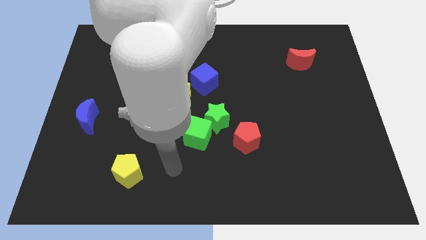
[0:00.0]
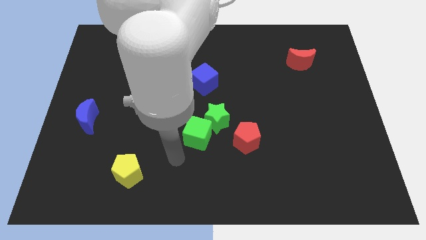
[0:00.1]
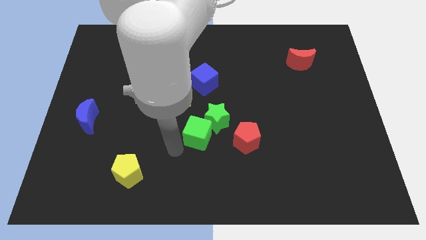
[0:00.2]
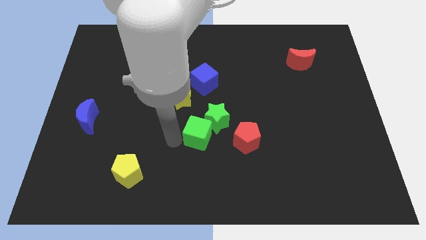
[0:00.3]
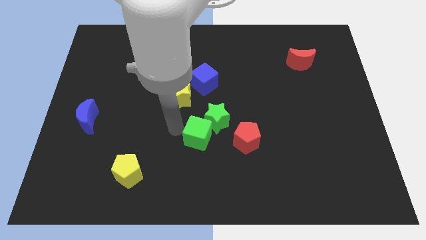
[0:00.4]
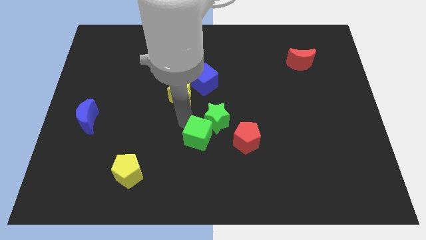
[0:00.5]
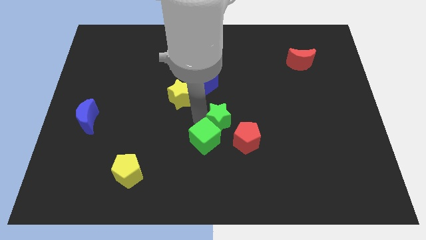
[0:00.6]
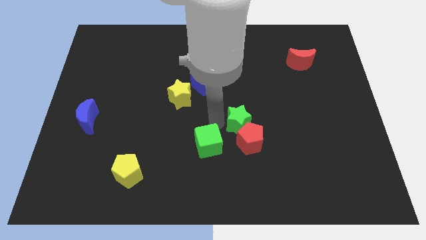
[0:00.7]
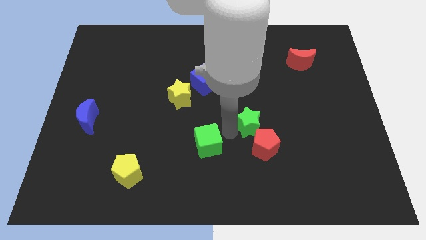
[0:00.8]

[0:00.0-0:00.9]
pull the green cube apart from the green star

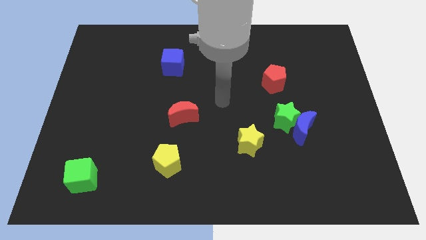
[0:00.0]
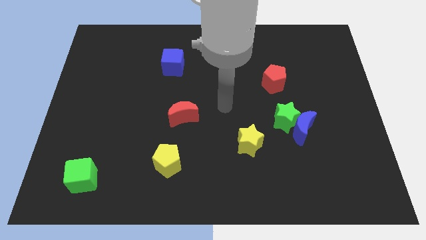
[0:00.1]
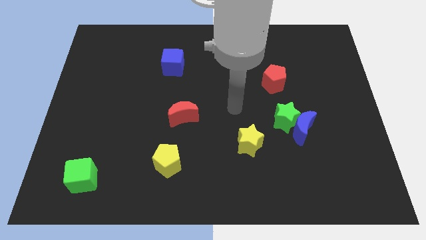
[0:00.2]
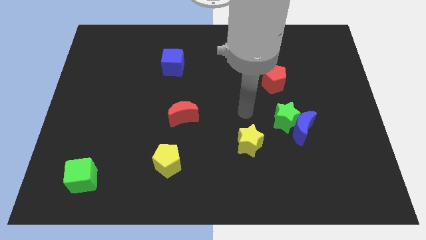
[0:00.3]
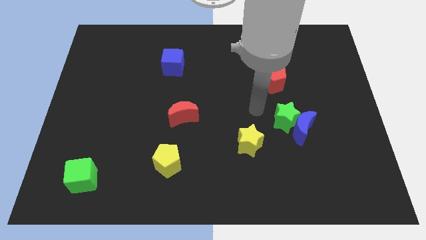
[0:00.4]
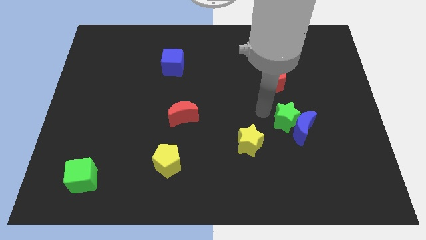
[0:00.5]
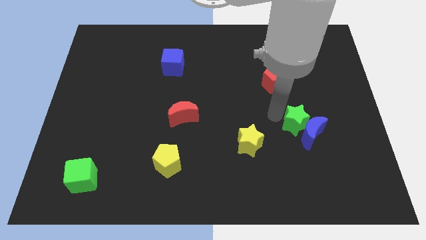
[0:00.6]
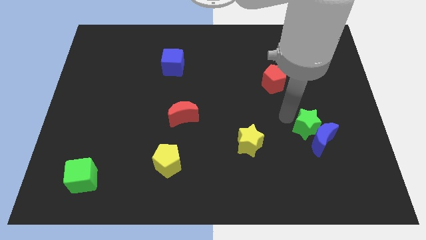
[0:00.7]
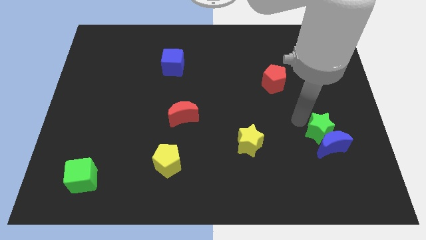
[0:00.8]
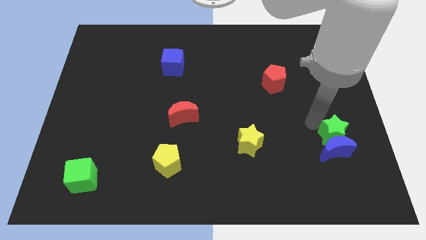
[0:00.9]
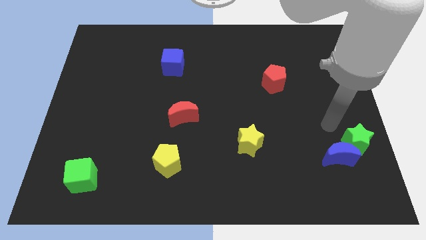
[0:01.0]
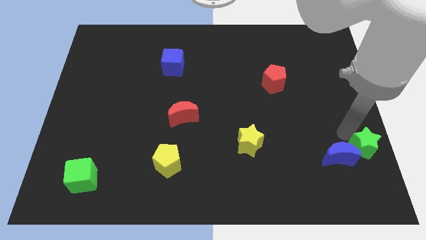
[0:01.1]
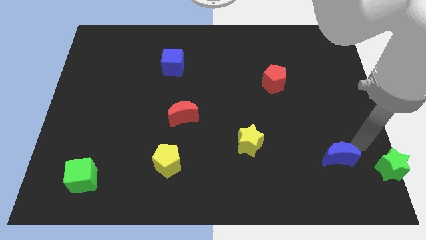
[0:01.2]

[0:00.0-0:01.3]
pull the blue moon apart from the green star

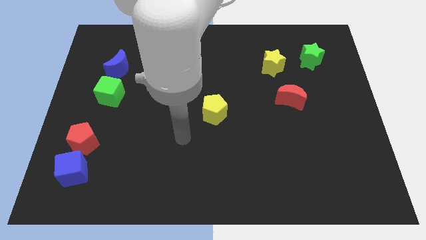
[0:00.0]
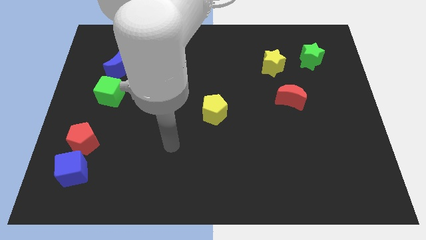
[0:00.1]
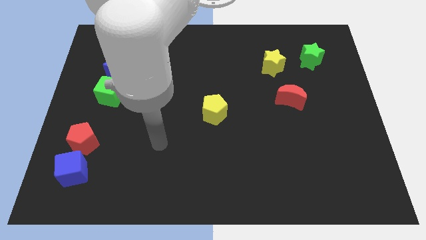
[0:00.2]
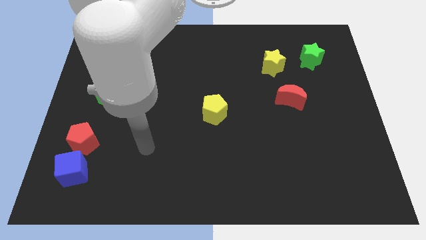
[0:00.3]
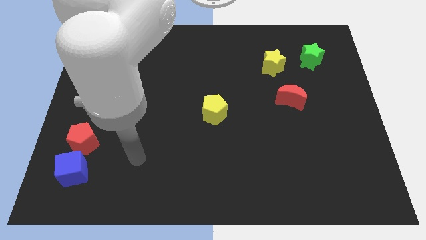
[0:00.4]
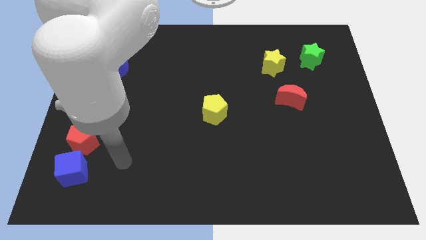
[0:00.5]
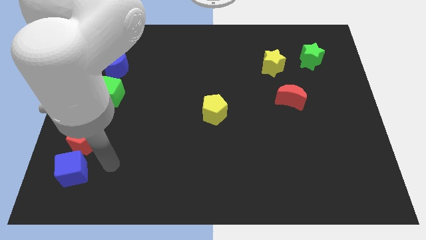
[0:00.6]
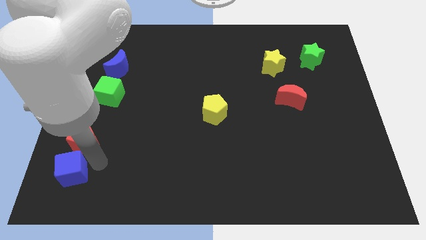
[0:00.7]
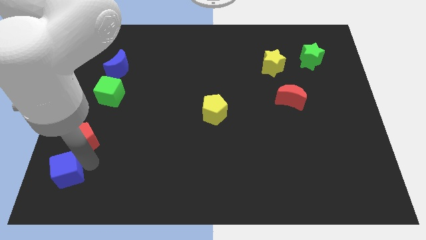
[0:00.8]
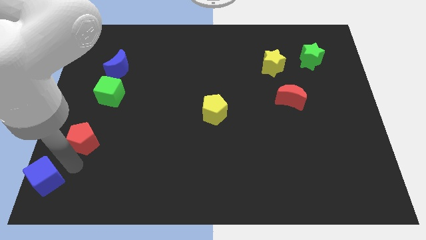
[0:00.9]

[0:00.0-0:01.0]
separate the red pentagon from the blue cube

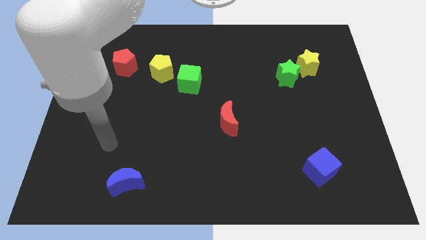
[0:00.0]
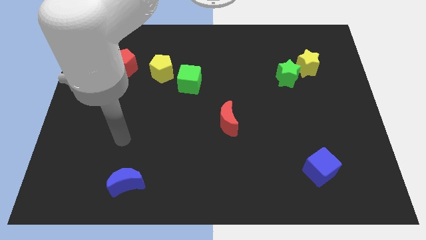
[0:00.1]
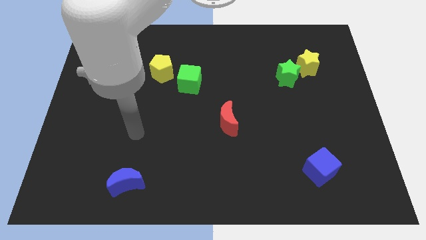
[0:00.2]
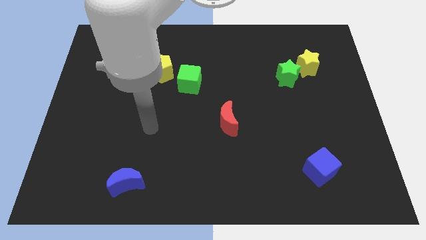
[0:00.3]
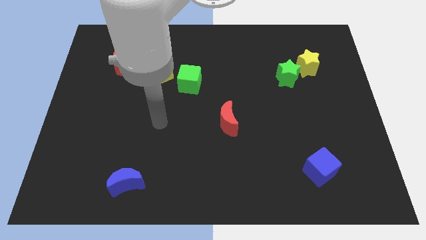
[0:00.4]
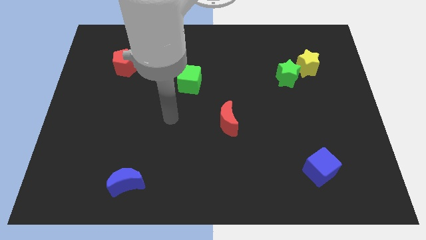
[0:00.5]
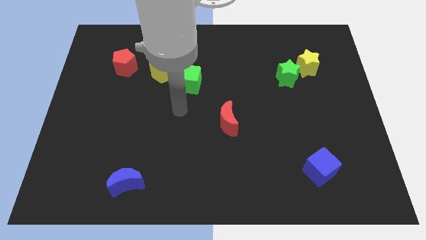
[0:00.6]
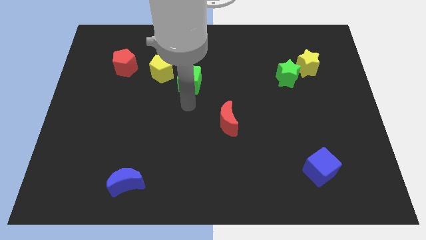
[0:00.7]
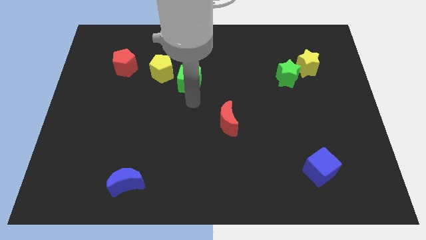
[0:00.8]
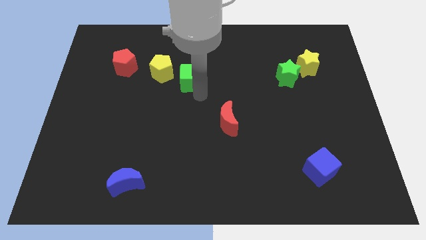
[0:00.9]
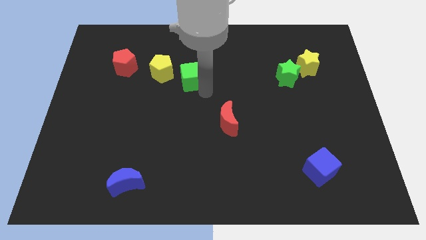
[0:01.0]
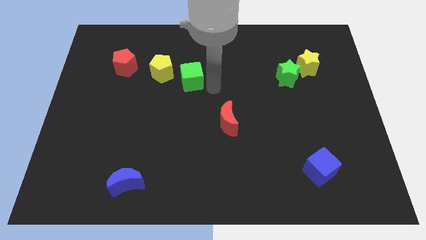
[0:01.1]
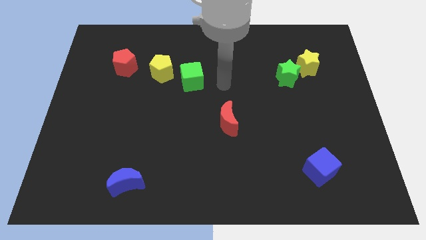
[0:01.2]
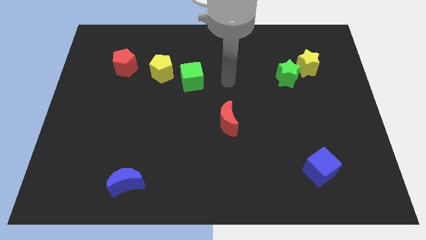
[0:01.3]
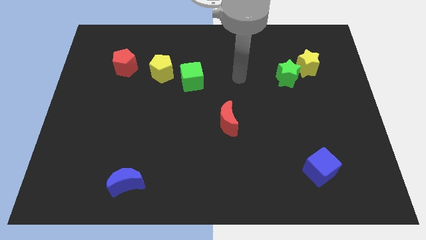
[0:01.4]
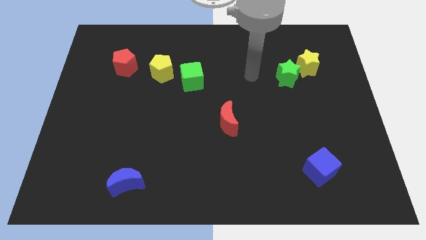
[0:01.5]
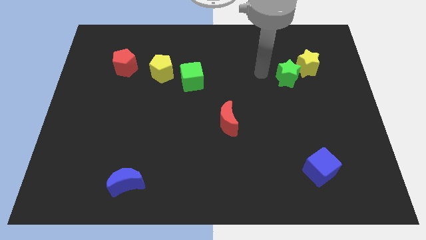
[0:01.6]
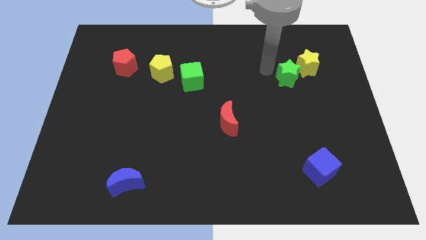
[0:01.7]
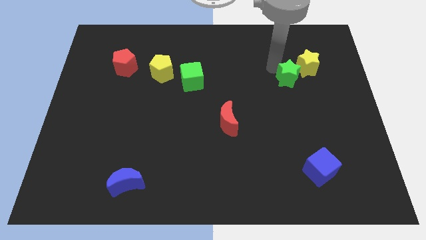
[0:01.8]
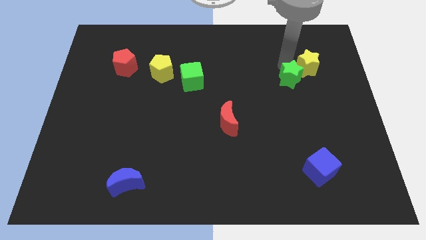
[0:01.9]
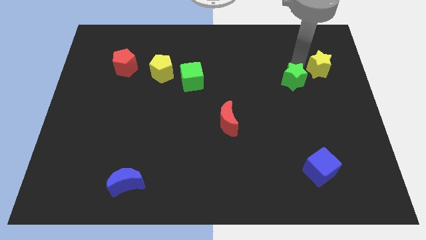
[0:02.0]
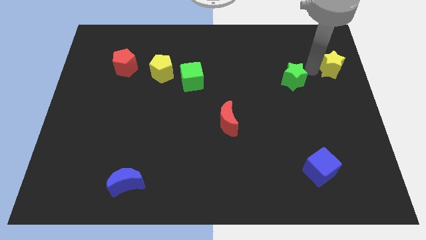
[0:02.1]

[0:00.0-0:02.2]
separate the green star from the yellow star

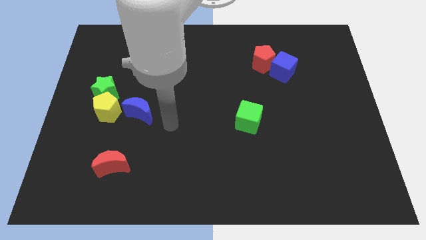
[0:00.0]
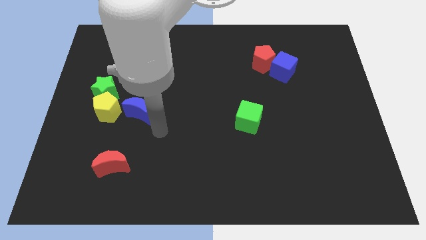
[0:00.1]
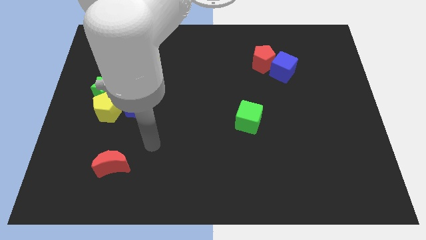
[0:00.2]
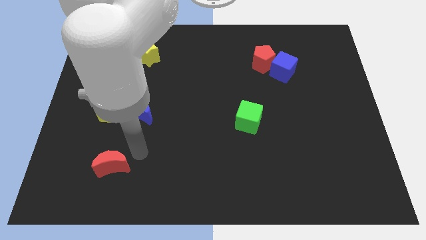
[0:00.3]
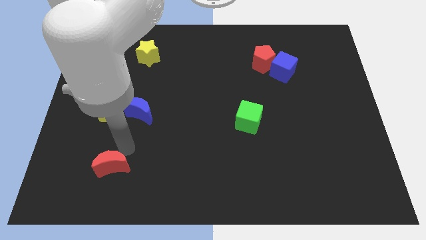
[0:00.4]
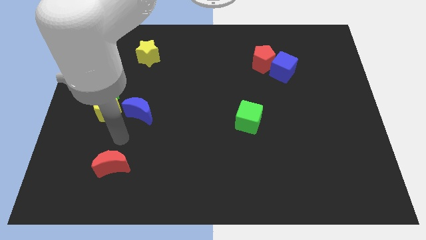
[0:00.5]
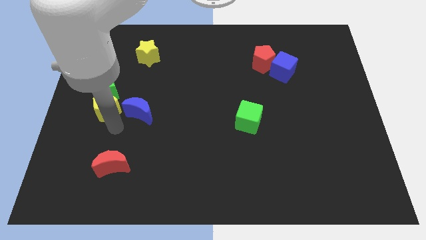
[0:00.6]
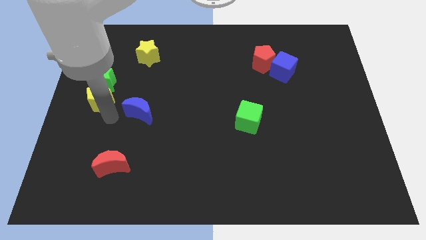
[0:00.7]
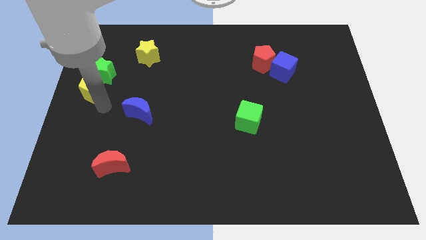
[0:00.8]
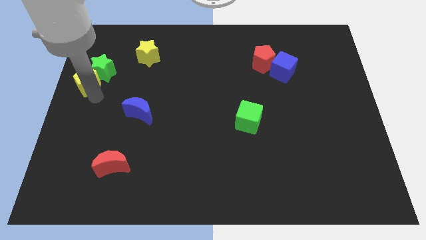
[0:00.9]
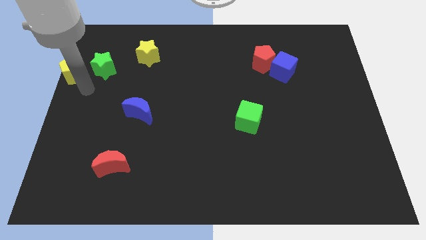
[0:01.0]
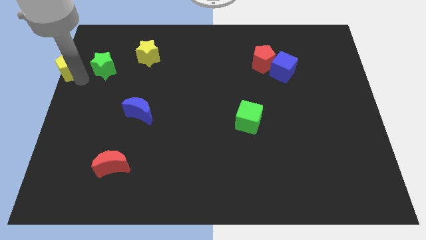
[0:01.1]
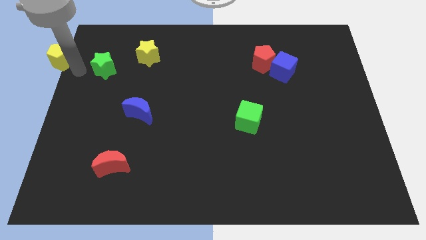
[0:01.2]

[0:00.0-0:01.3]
separate the green star from the yellow pentagon

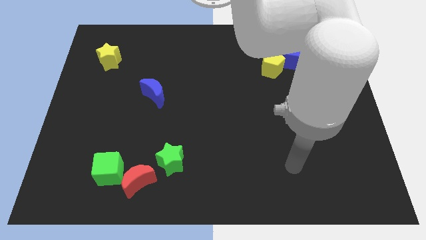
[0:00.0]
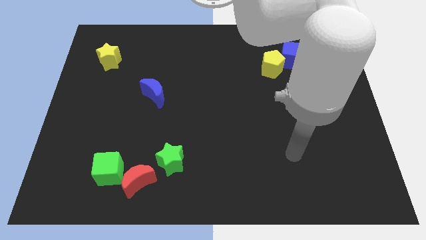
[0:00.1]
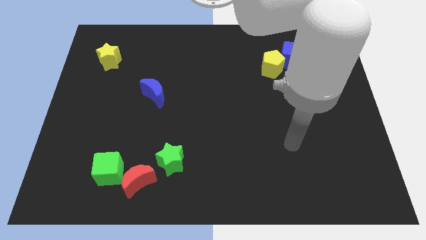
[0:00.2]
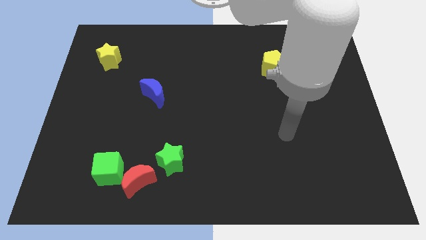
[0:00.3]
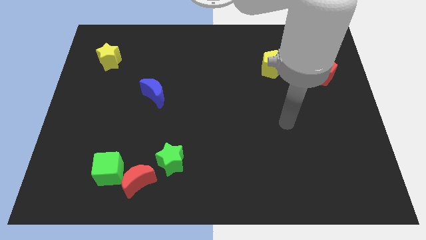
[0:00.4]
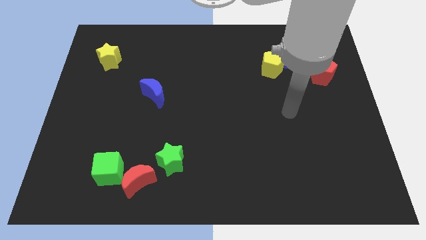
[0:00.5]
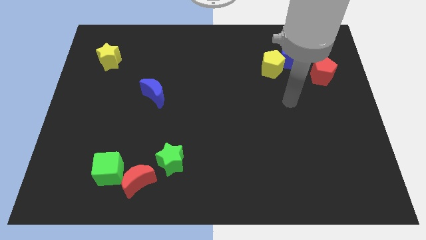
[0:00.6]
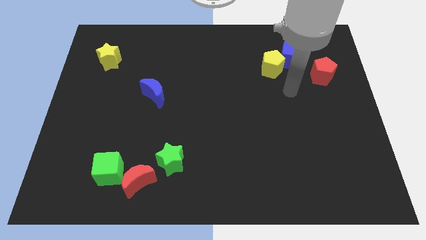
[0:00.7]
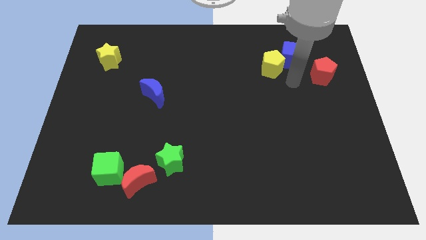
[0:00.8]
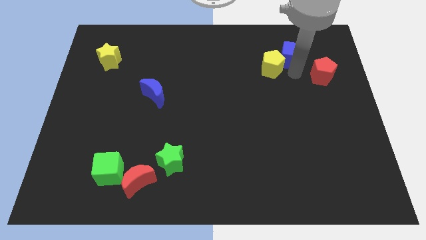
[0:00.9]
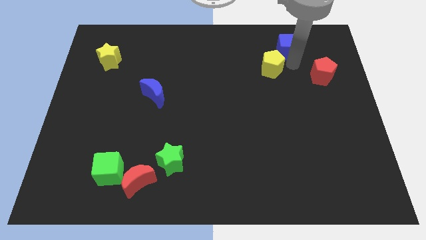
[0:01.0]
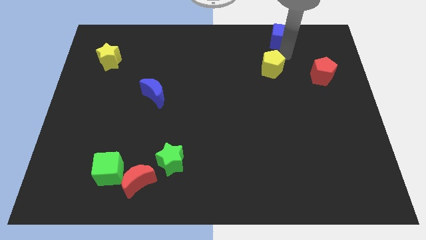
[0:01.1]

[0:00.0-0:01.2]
move the yellow pentagon away from the blue cube

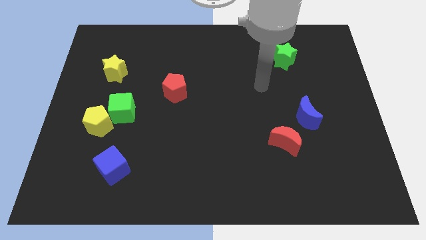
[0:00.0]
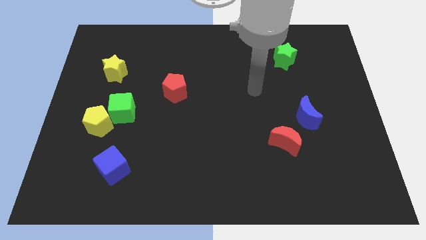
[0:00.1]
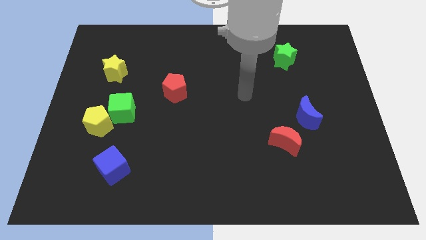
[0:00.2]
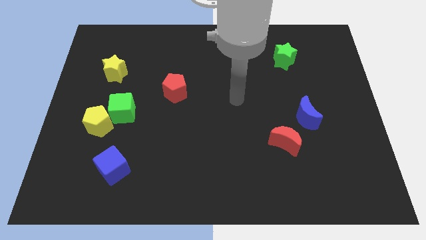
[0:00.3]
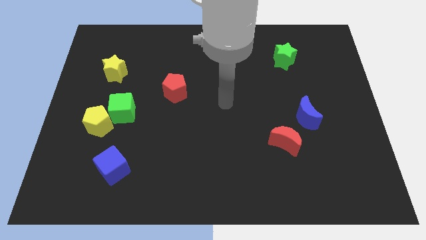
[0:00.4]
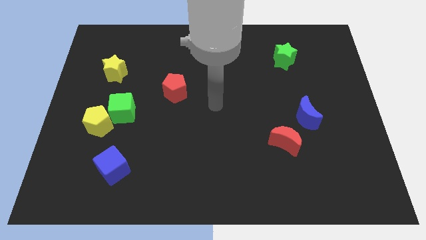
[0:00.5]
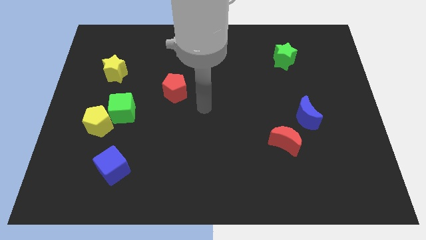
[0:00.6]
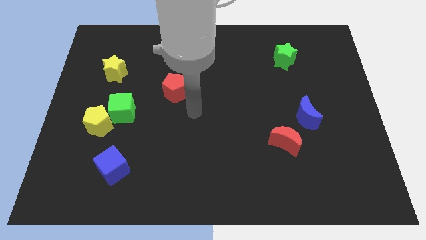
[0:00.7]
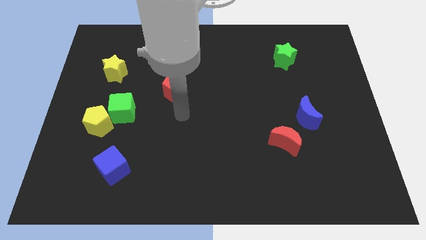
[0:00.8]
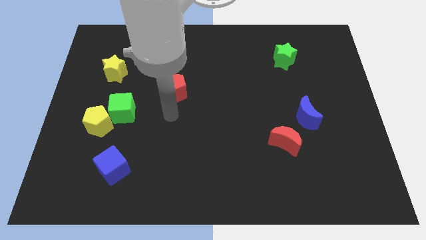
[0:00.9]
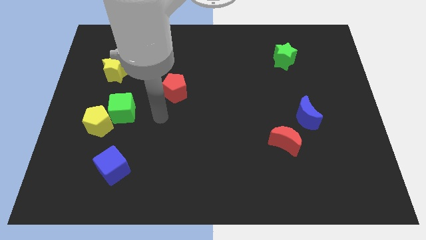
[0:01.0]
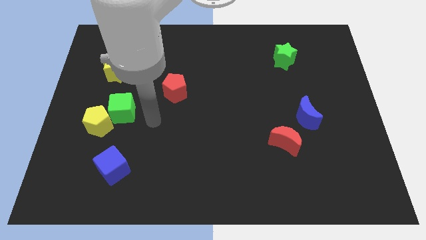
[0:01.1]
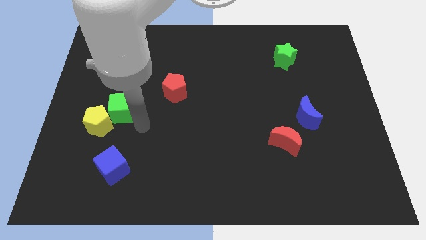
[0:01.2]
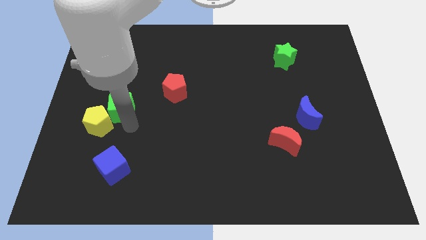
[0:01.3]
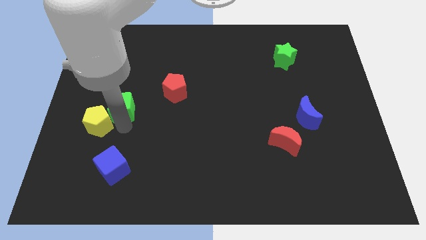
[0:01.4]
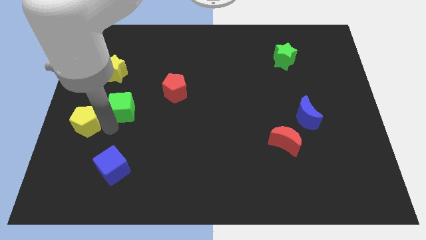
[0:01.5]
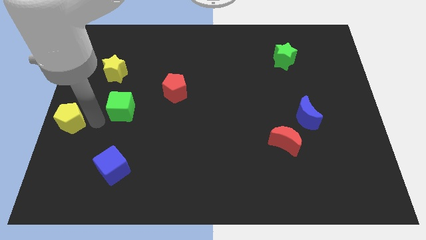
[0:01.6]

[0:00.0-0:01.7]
pull the green cube apart from the yellow pentagon
